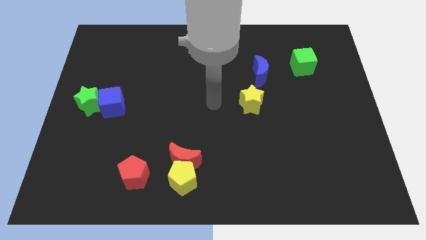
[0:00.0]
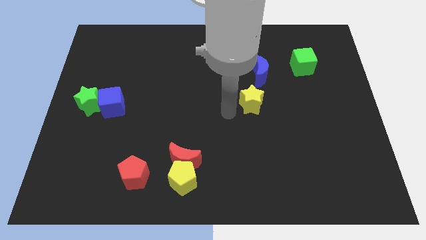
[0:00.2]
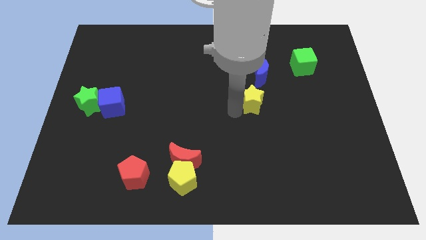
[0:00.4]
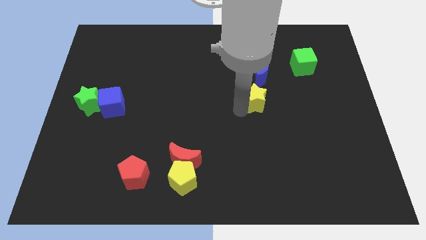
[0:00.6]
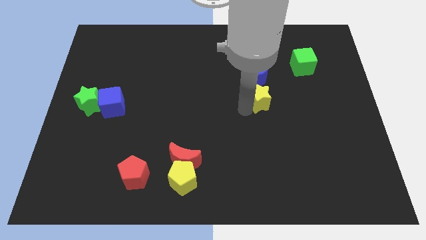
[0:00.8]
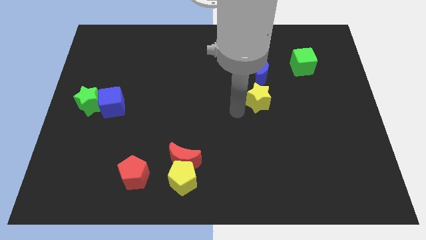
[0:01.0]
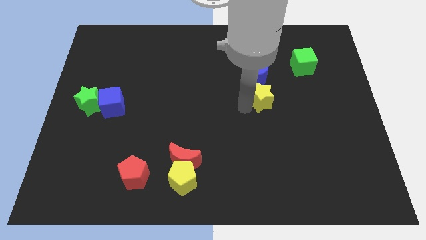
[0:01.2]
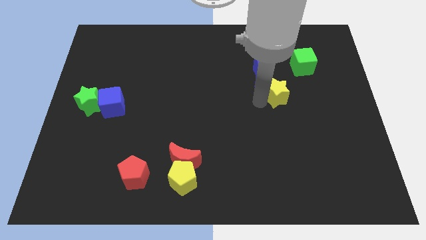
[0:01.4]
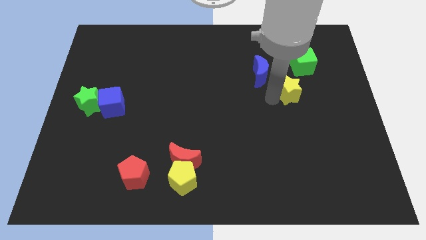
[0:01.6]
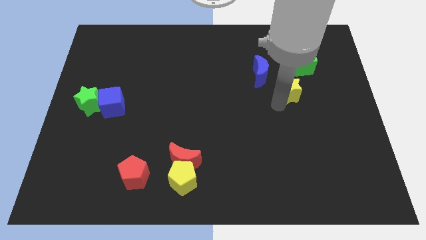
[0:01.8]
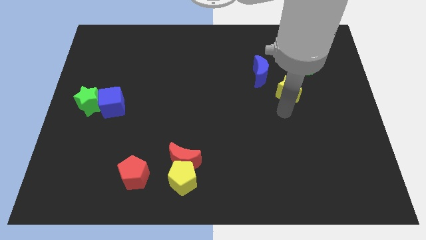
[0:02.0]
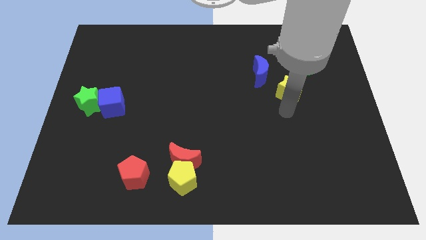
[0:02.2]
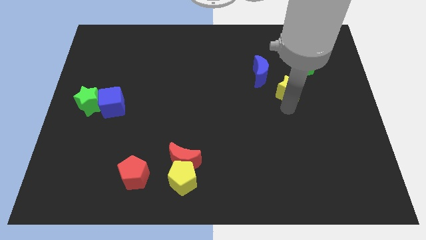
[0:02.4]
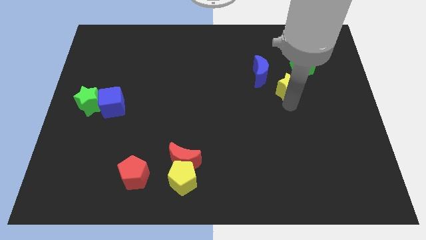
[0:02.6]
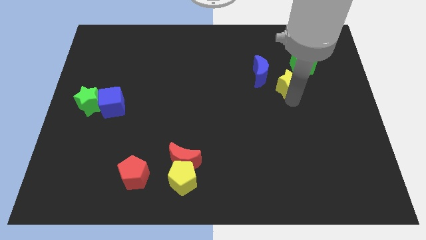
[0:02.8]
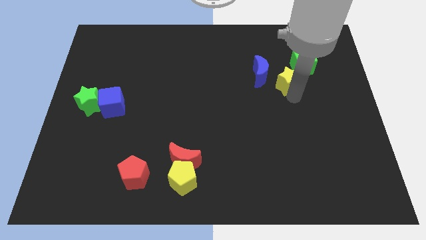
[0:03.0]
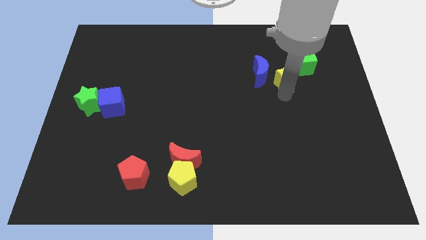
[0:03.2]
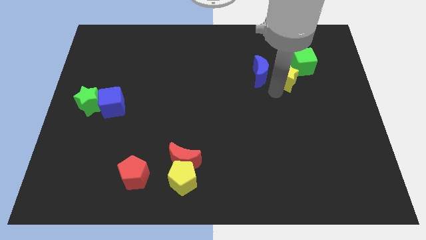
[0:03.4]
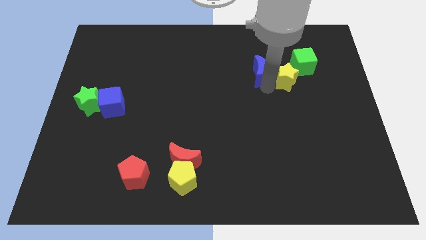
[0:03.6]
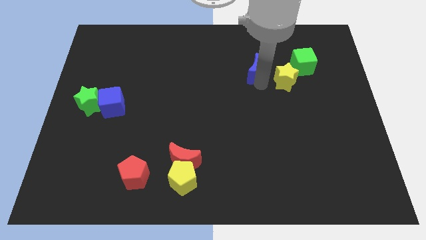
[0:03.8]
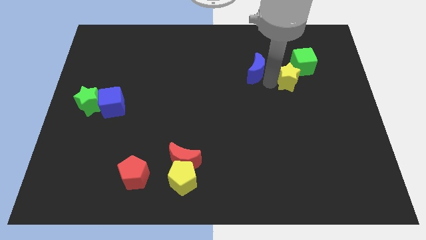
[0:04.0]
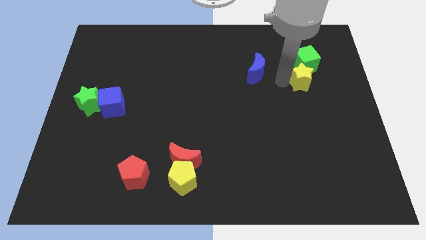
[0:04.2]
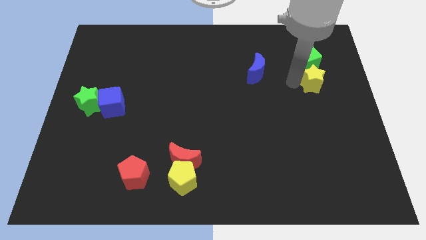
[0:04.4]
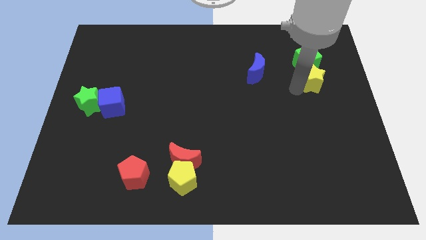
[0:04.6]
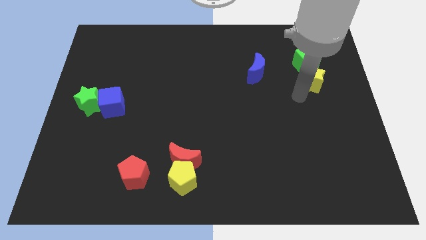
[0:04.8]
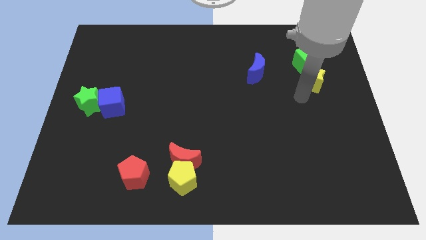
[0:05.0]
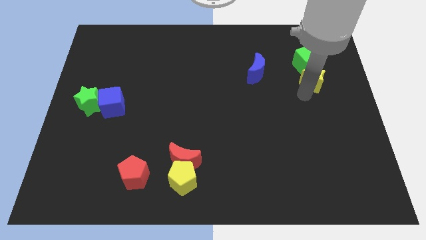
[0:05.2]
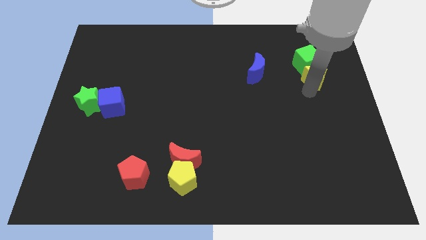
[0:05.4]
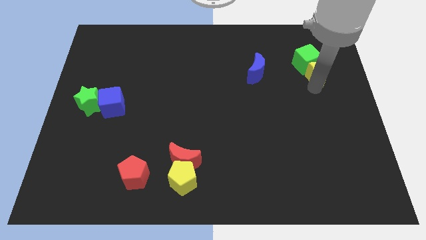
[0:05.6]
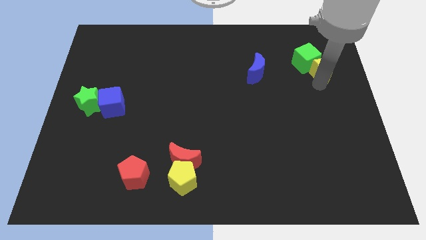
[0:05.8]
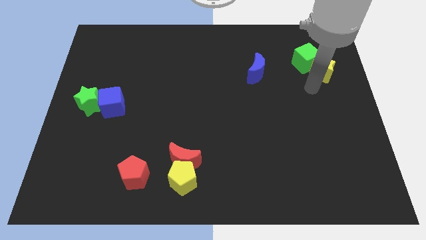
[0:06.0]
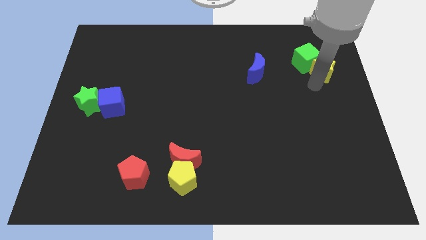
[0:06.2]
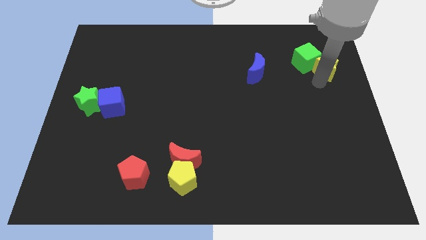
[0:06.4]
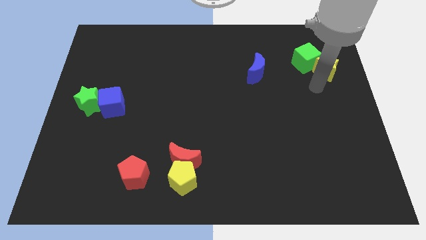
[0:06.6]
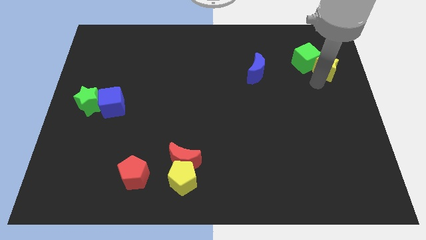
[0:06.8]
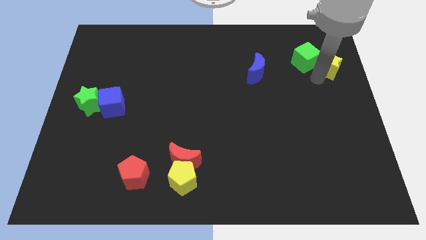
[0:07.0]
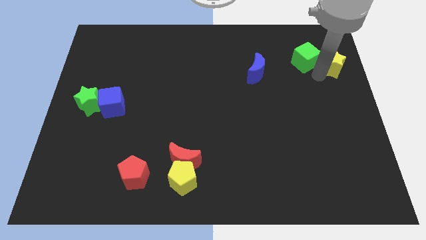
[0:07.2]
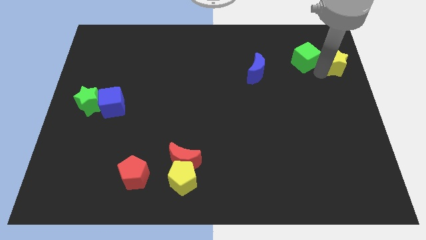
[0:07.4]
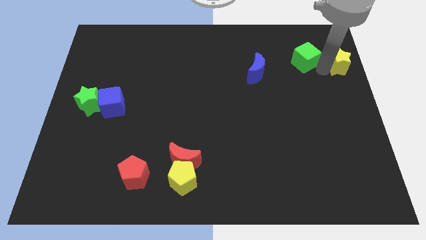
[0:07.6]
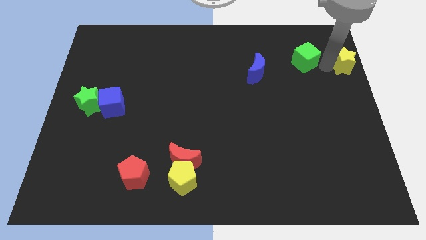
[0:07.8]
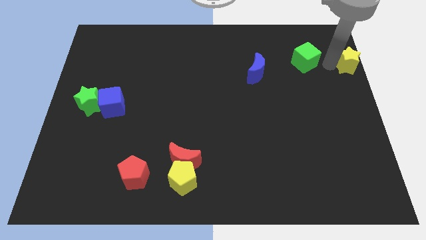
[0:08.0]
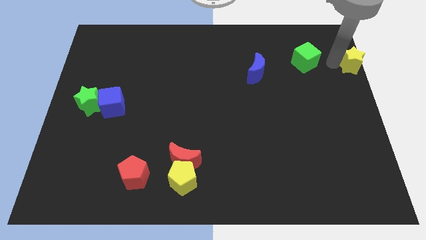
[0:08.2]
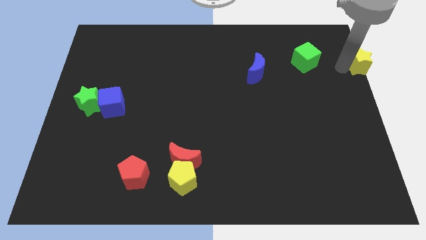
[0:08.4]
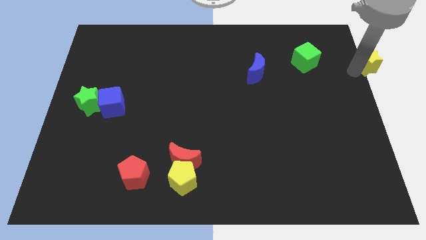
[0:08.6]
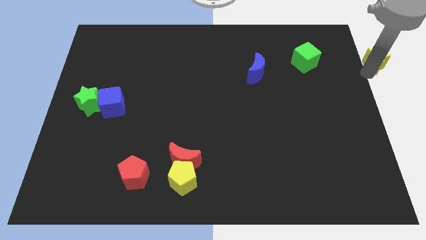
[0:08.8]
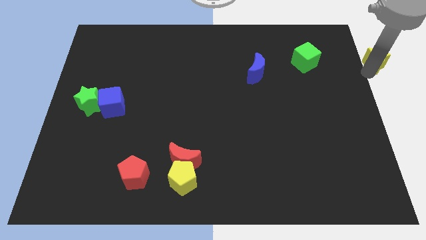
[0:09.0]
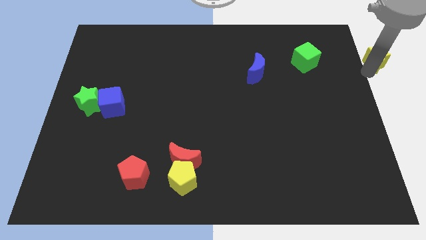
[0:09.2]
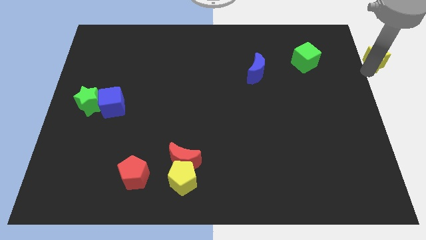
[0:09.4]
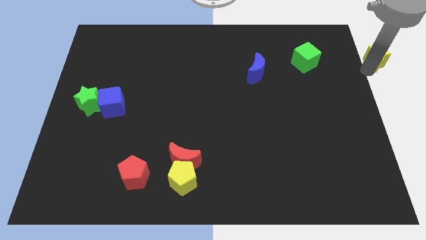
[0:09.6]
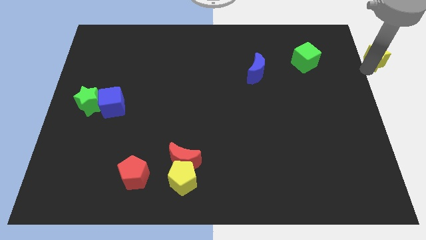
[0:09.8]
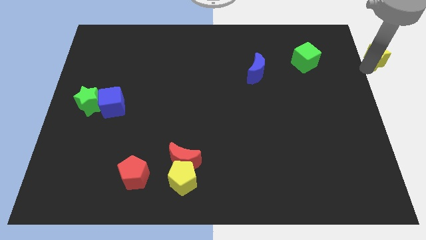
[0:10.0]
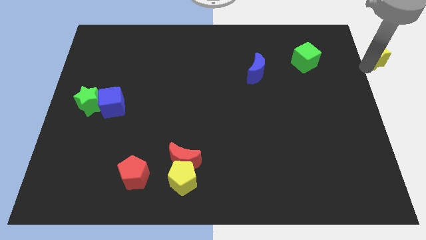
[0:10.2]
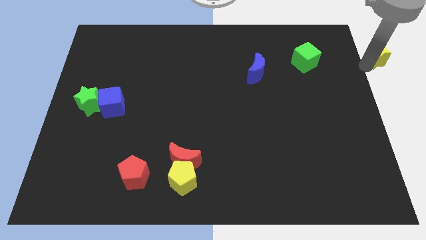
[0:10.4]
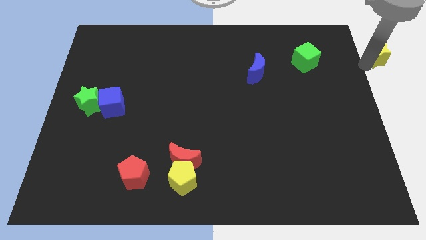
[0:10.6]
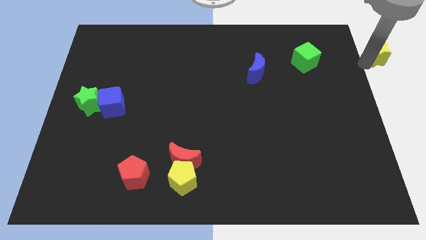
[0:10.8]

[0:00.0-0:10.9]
push the yellow star to the upper right corner

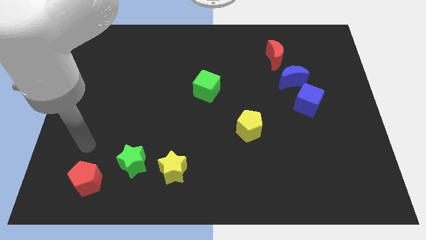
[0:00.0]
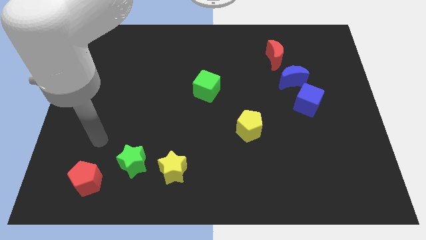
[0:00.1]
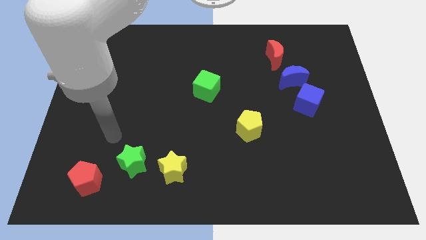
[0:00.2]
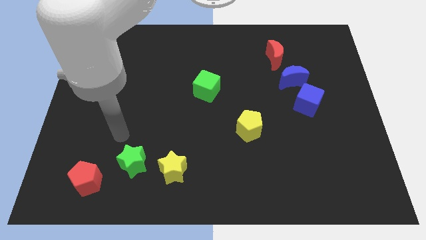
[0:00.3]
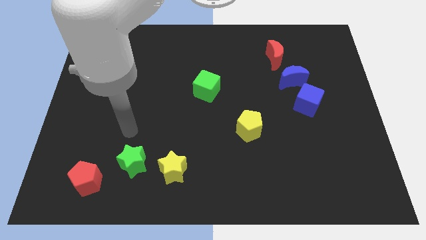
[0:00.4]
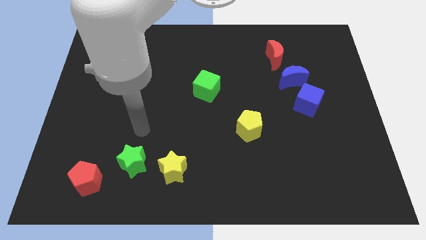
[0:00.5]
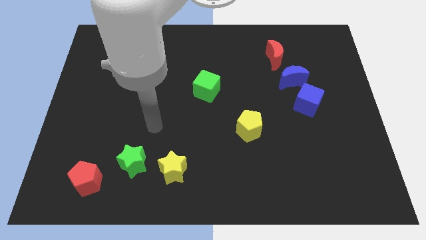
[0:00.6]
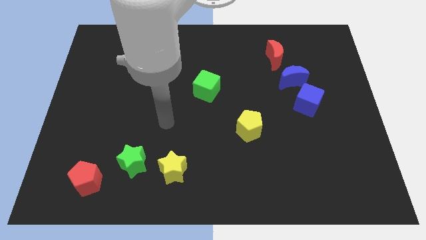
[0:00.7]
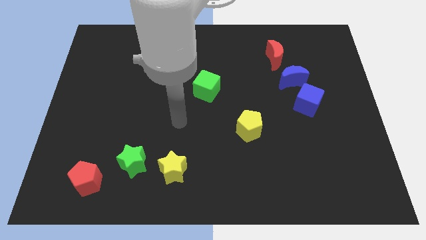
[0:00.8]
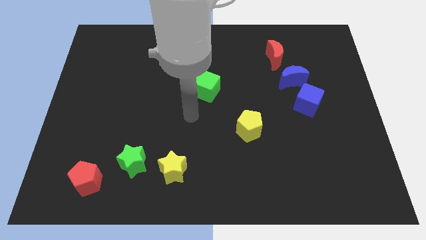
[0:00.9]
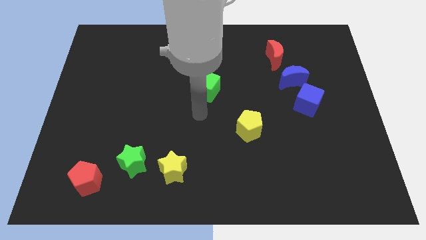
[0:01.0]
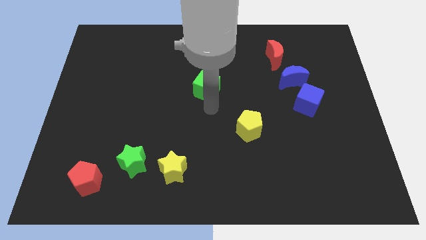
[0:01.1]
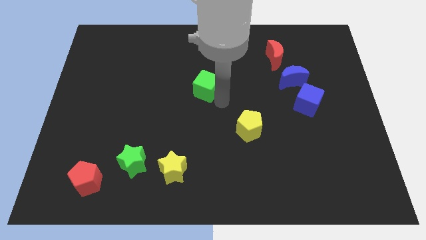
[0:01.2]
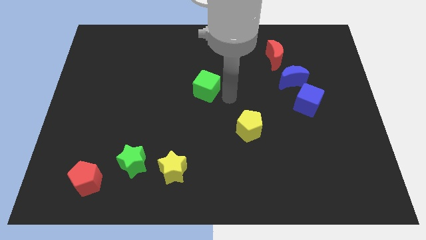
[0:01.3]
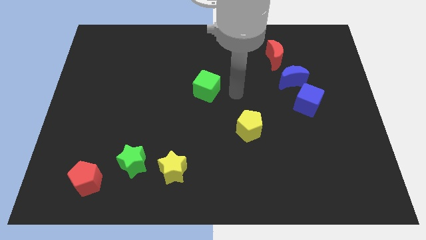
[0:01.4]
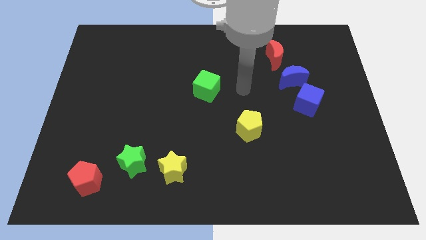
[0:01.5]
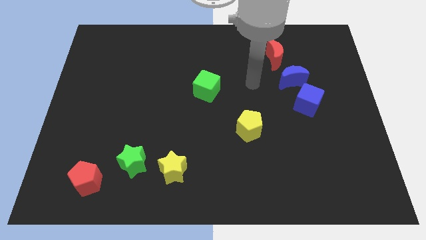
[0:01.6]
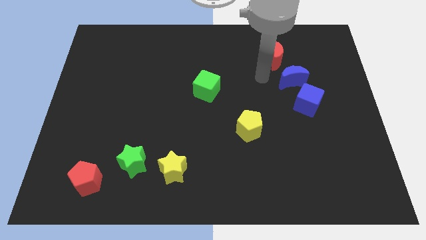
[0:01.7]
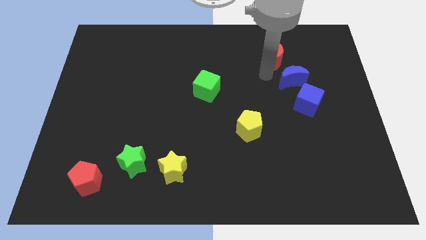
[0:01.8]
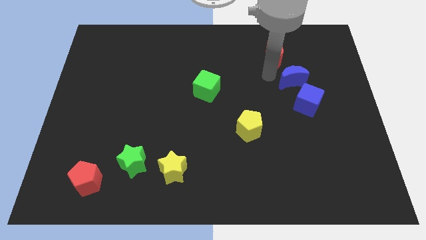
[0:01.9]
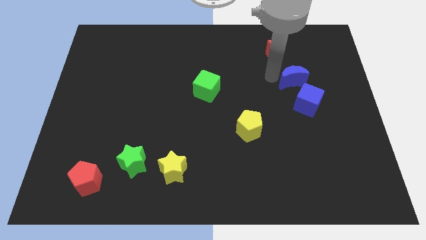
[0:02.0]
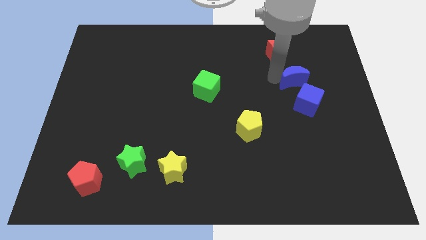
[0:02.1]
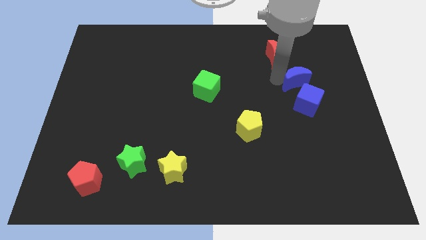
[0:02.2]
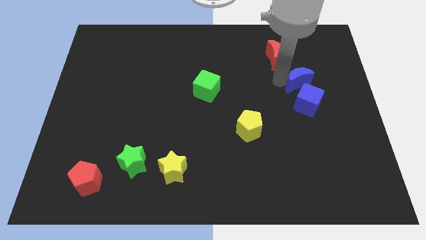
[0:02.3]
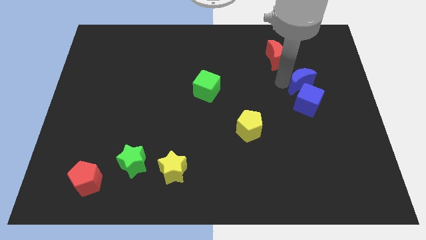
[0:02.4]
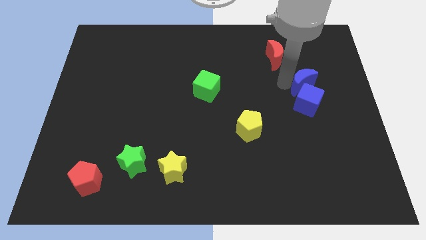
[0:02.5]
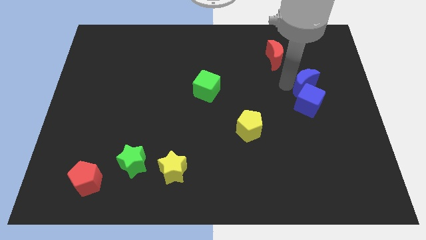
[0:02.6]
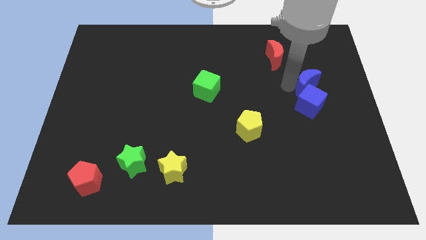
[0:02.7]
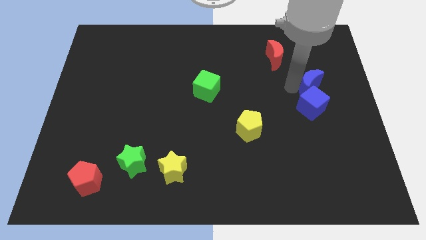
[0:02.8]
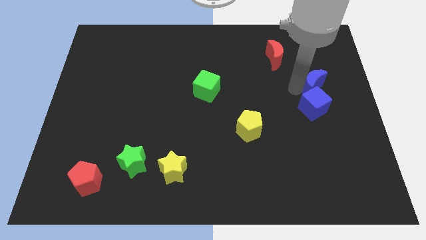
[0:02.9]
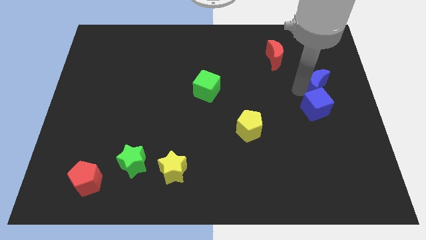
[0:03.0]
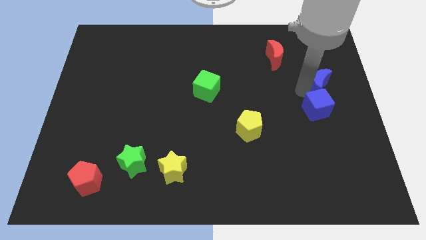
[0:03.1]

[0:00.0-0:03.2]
move the blue moon to the right side of the board
